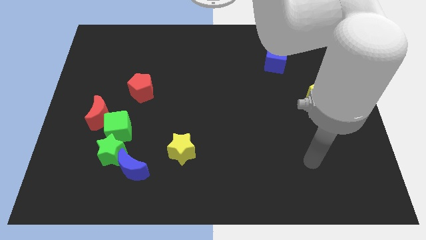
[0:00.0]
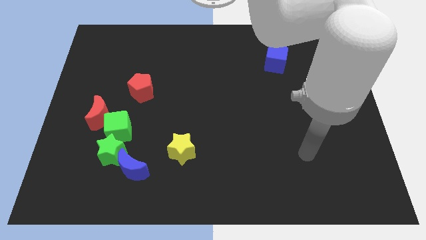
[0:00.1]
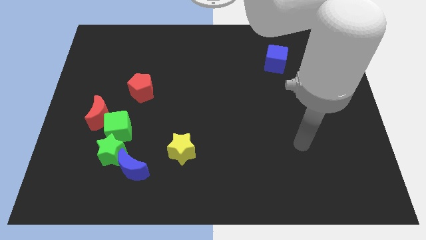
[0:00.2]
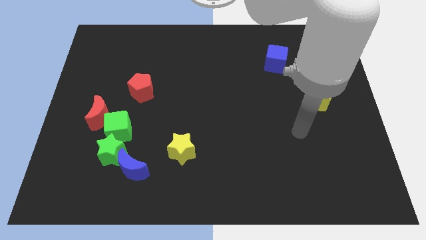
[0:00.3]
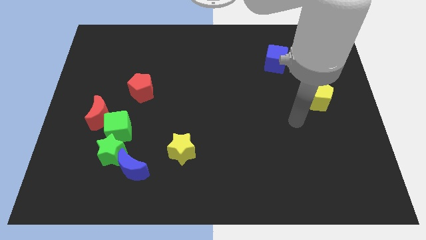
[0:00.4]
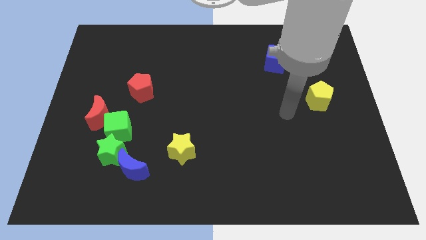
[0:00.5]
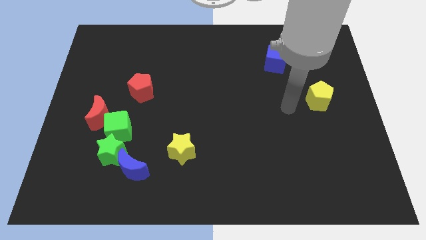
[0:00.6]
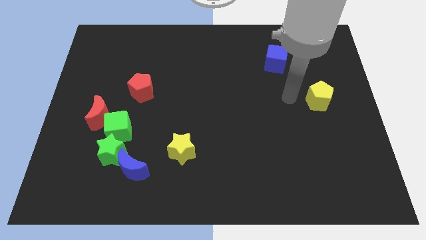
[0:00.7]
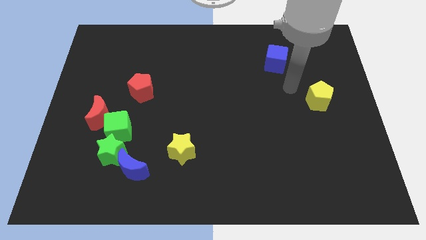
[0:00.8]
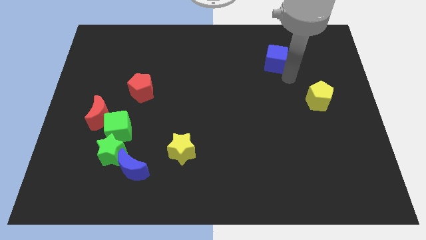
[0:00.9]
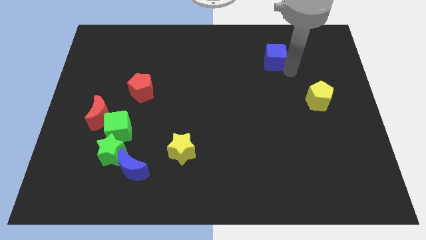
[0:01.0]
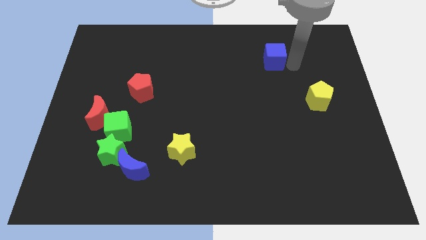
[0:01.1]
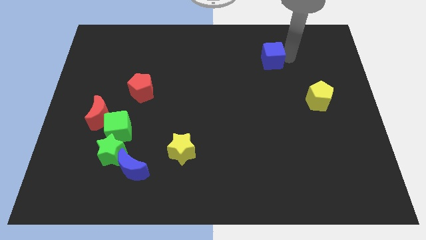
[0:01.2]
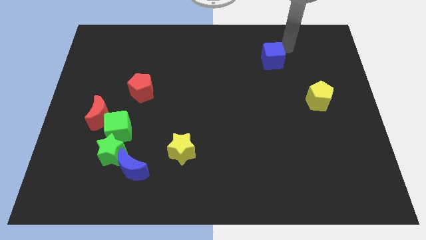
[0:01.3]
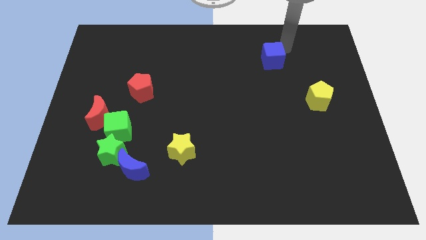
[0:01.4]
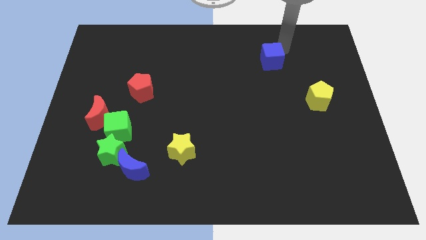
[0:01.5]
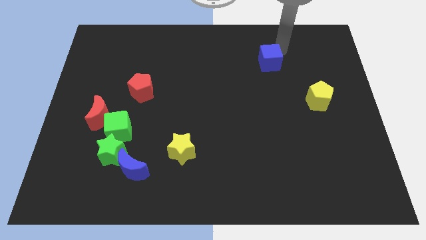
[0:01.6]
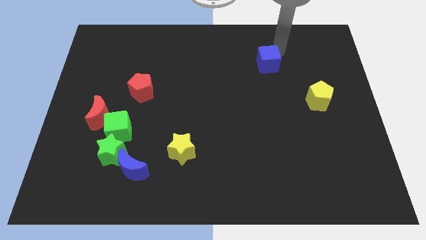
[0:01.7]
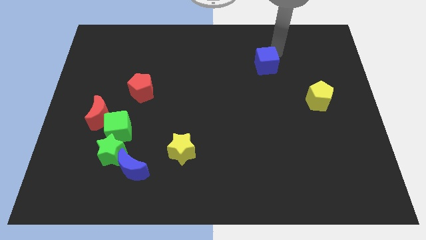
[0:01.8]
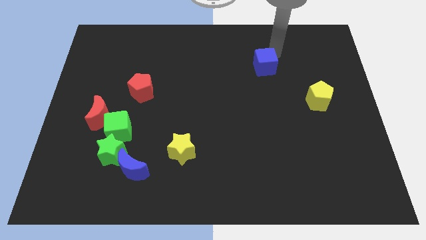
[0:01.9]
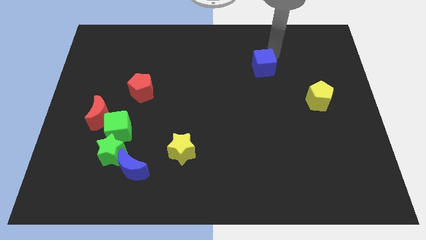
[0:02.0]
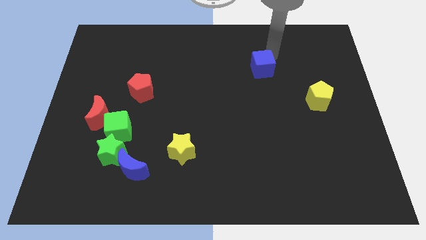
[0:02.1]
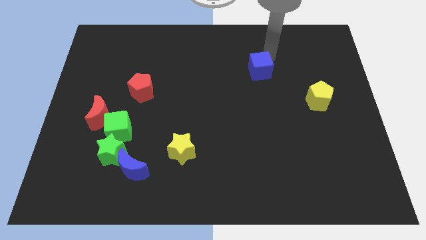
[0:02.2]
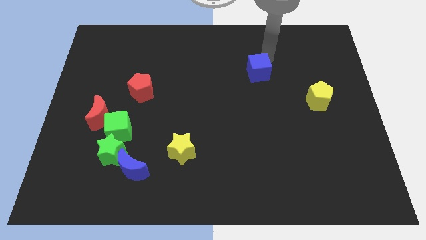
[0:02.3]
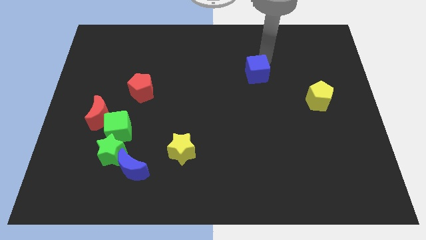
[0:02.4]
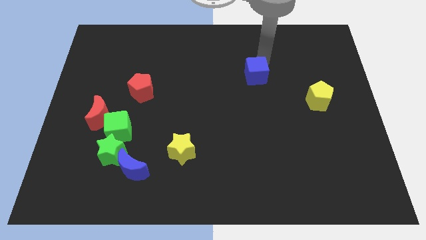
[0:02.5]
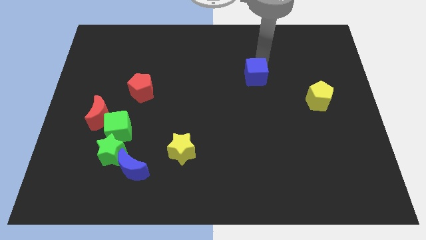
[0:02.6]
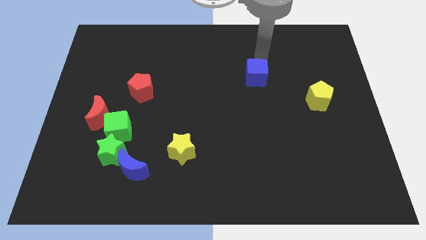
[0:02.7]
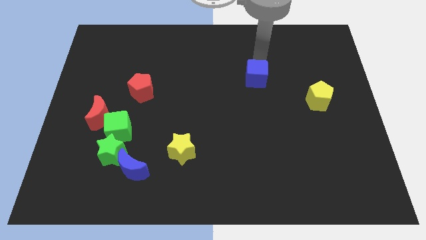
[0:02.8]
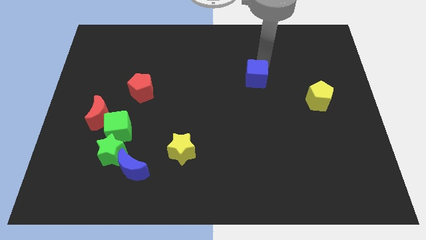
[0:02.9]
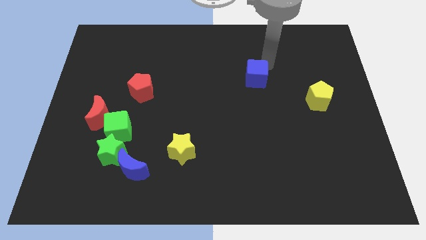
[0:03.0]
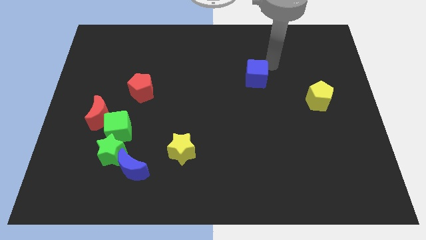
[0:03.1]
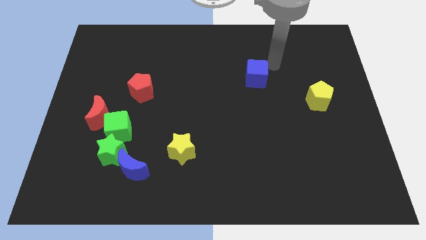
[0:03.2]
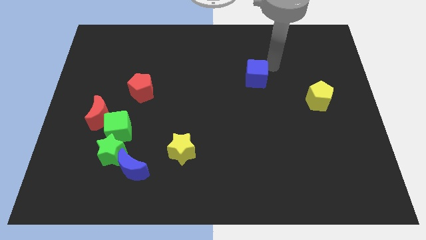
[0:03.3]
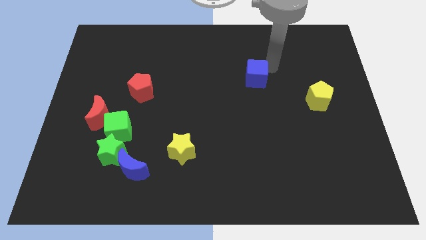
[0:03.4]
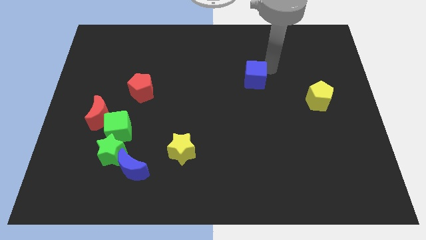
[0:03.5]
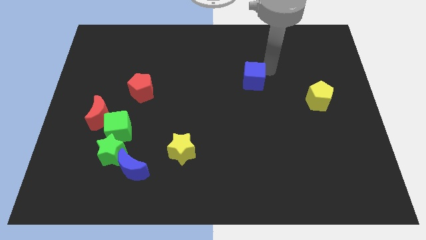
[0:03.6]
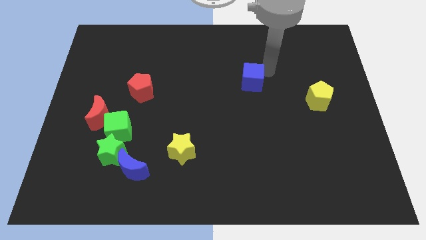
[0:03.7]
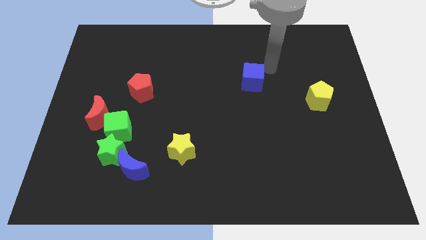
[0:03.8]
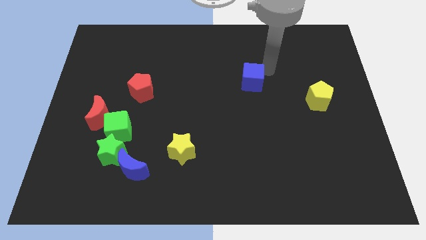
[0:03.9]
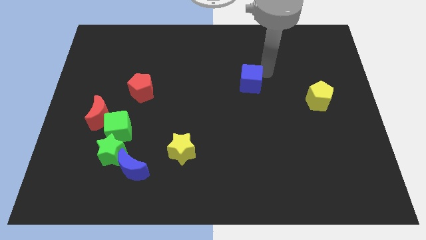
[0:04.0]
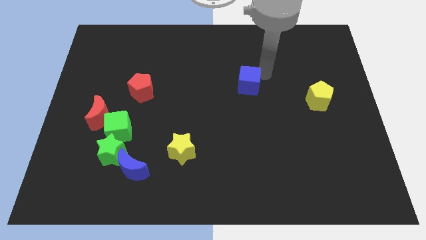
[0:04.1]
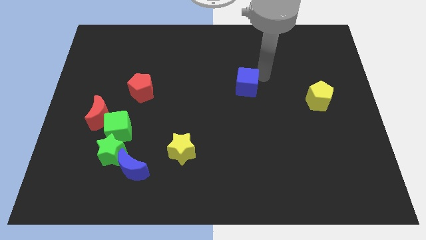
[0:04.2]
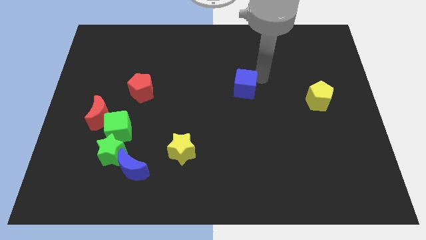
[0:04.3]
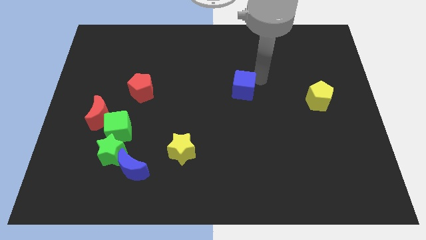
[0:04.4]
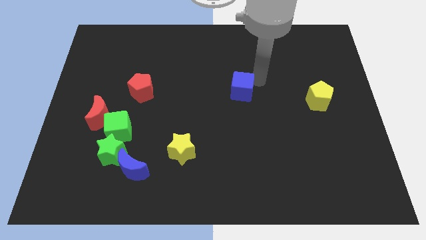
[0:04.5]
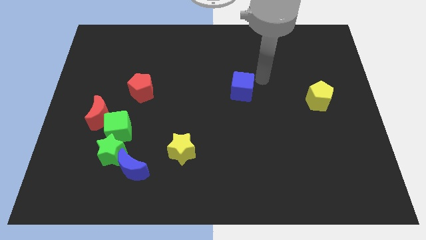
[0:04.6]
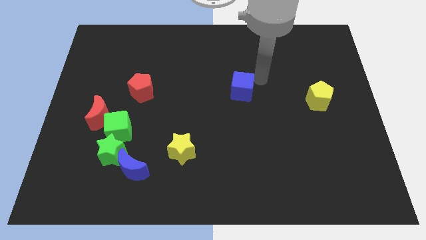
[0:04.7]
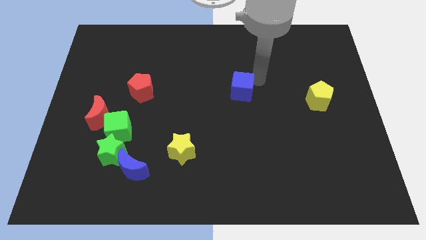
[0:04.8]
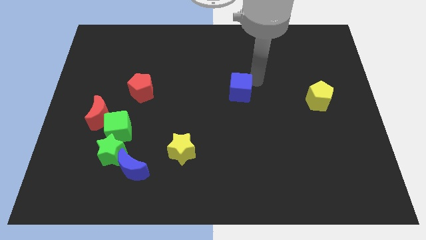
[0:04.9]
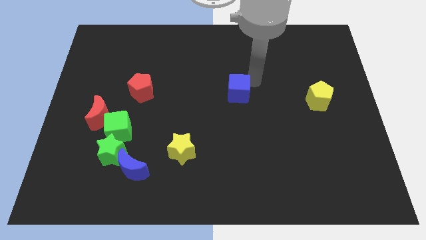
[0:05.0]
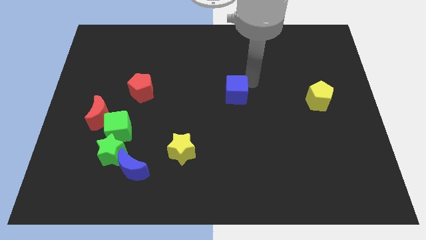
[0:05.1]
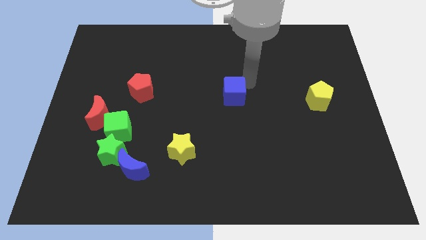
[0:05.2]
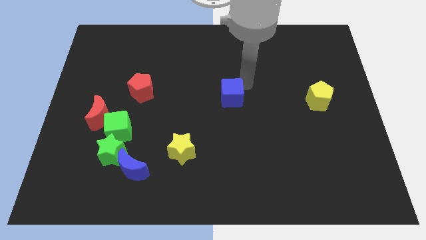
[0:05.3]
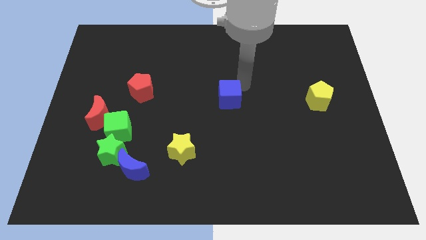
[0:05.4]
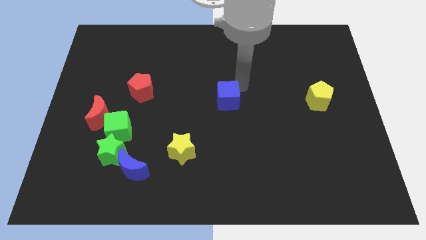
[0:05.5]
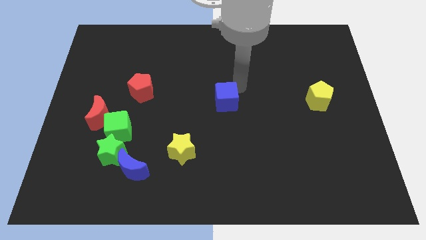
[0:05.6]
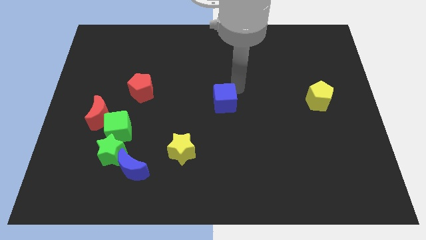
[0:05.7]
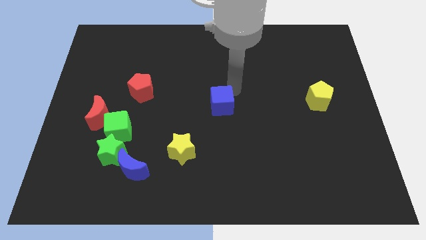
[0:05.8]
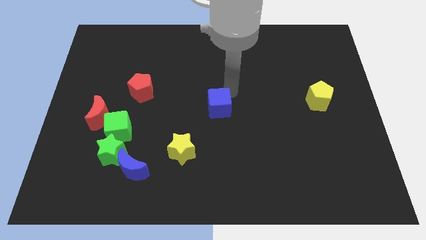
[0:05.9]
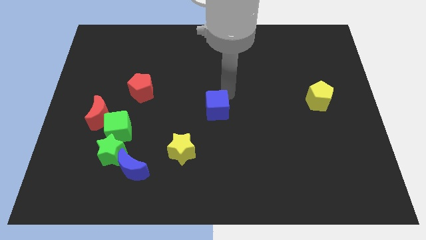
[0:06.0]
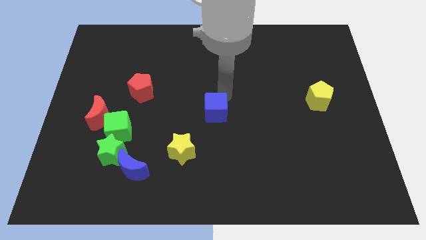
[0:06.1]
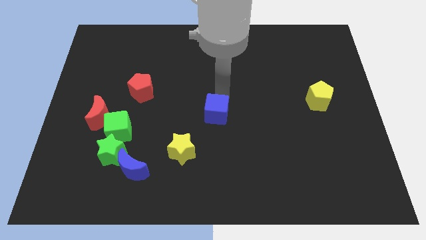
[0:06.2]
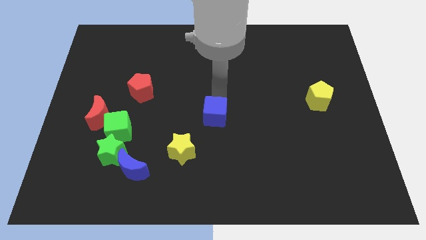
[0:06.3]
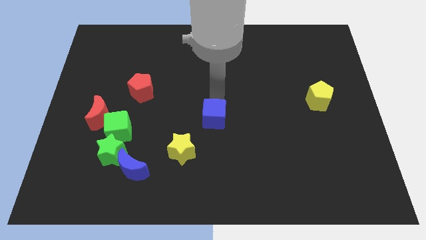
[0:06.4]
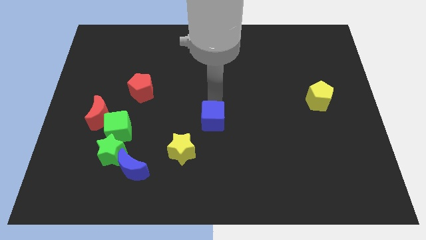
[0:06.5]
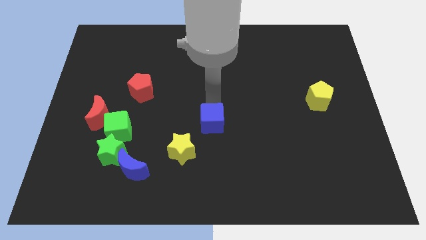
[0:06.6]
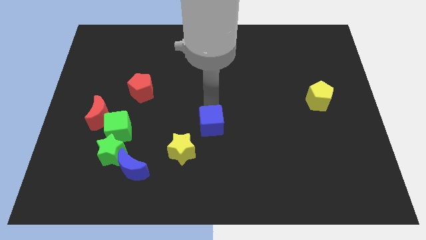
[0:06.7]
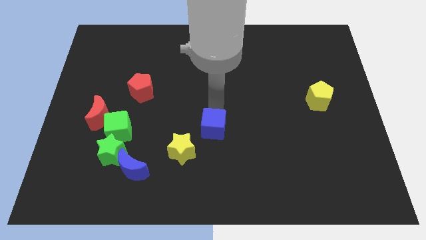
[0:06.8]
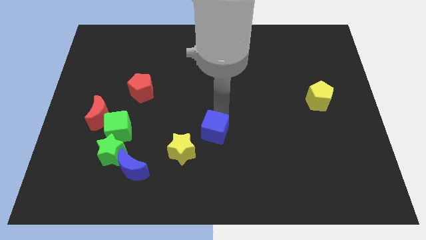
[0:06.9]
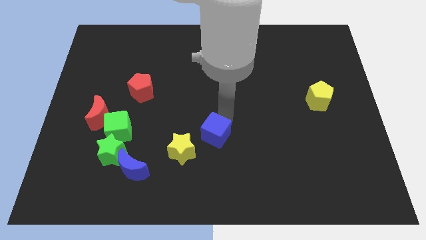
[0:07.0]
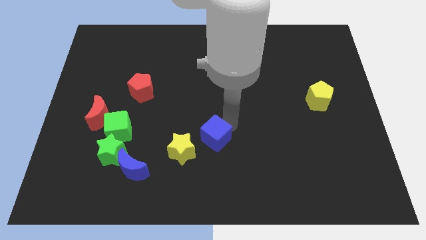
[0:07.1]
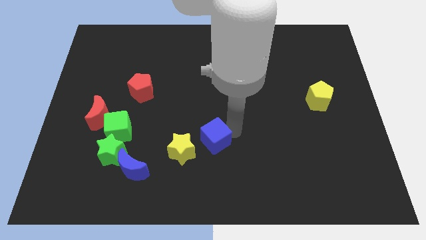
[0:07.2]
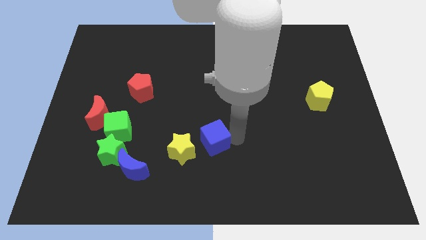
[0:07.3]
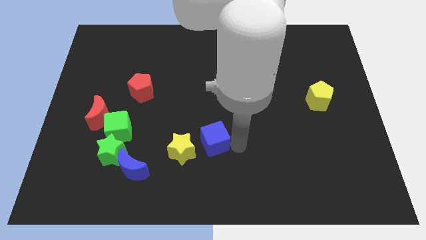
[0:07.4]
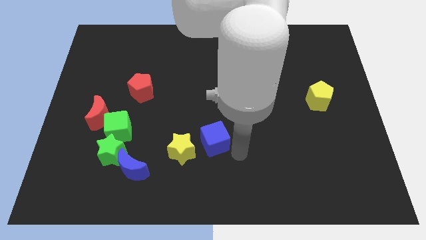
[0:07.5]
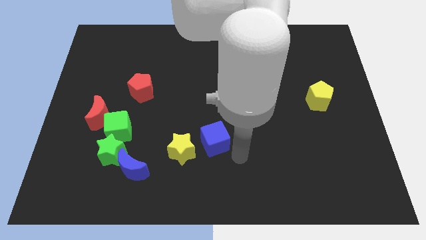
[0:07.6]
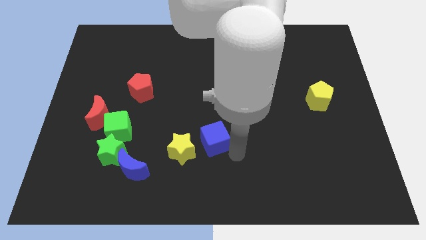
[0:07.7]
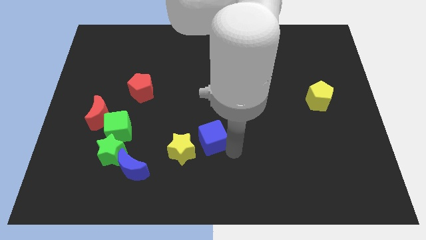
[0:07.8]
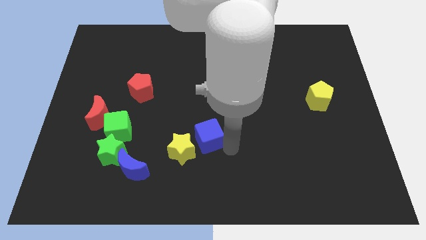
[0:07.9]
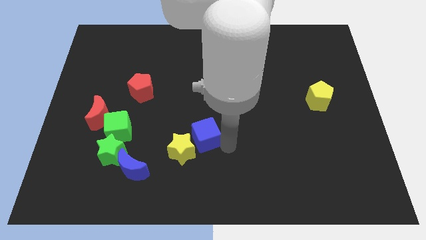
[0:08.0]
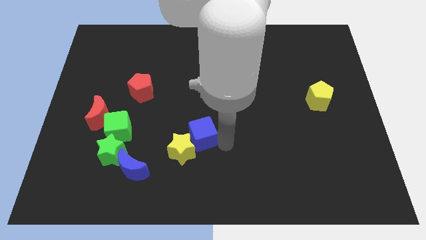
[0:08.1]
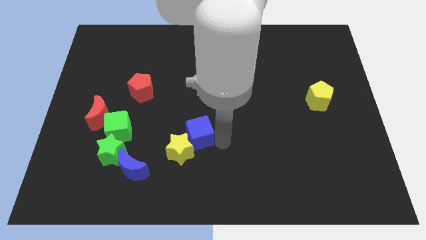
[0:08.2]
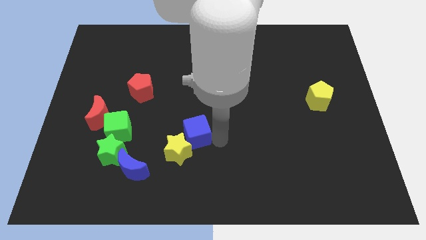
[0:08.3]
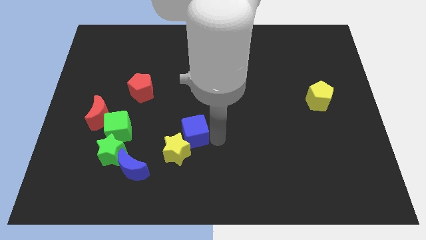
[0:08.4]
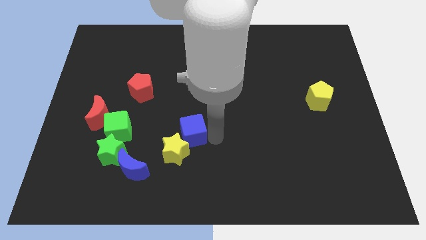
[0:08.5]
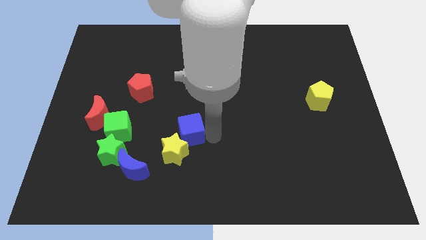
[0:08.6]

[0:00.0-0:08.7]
put the blue cube to the right side of the green cube
